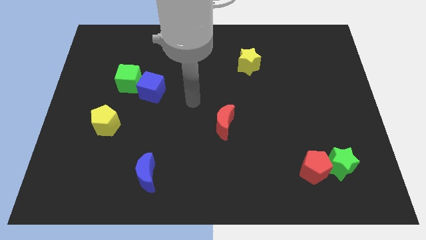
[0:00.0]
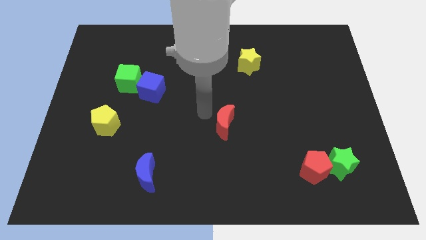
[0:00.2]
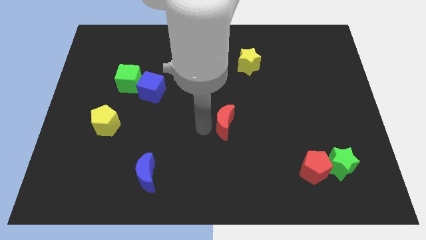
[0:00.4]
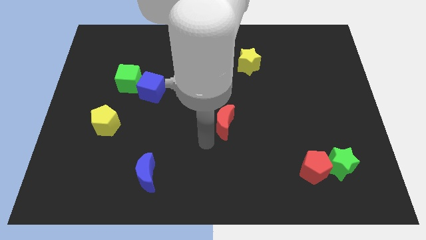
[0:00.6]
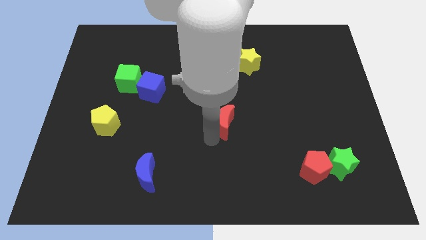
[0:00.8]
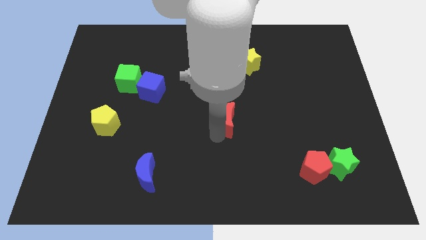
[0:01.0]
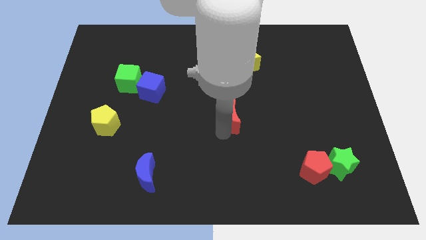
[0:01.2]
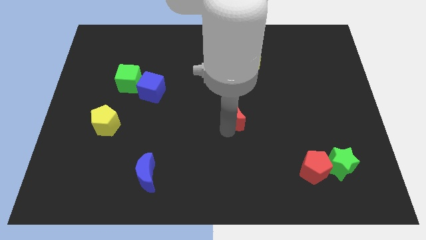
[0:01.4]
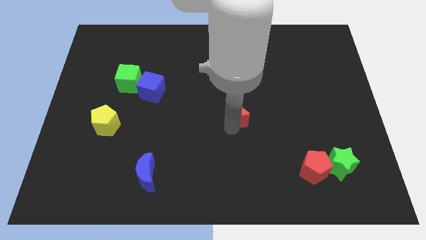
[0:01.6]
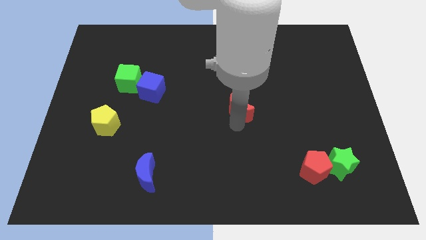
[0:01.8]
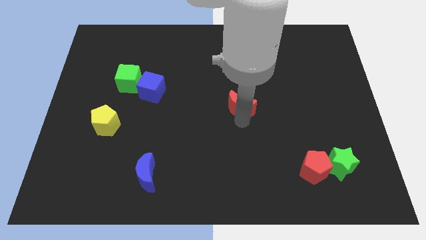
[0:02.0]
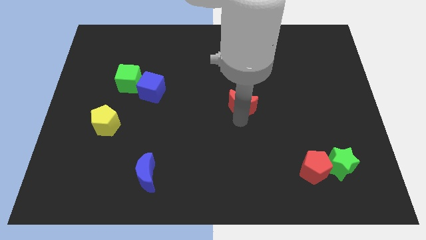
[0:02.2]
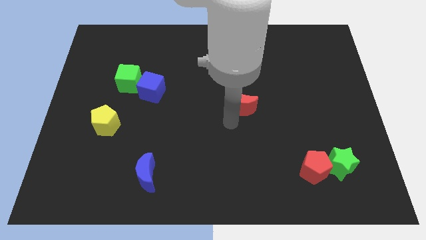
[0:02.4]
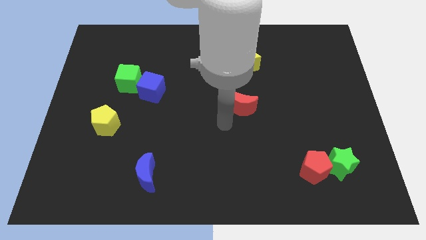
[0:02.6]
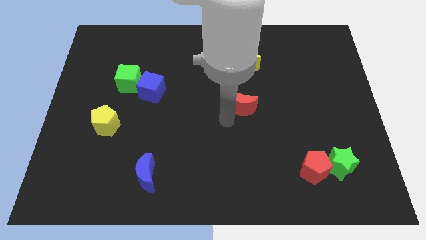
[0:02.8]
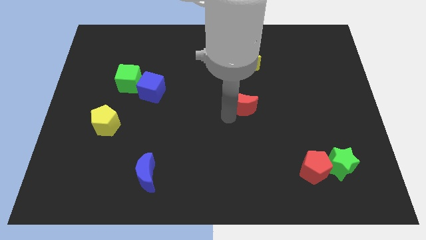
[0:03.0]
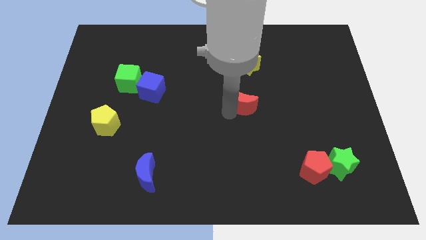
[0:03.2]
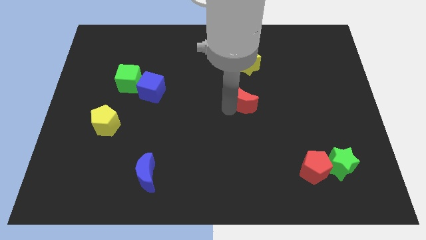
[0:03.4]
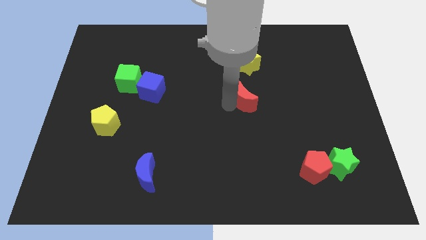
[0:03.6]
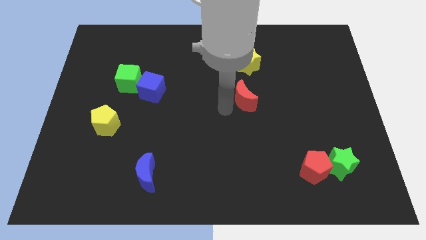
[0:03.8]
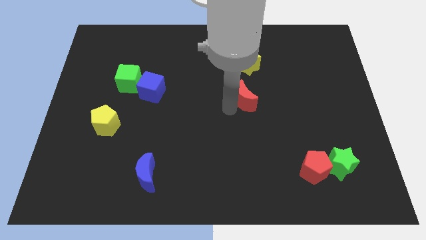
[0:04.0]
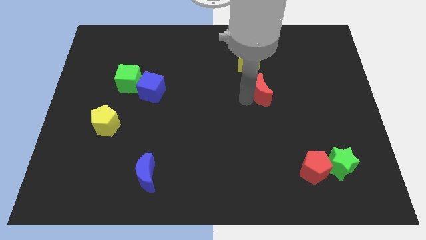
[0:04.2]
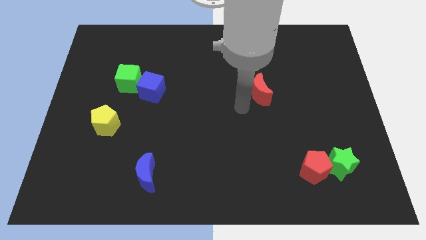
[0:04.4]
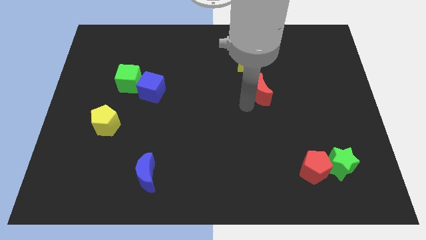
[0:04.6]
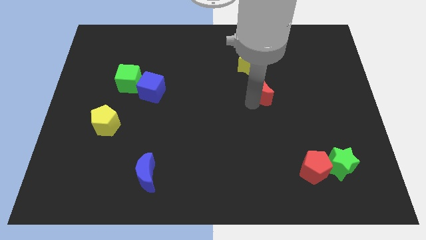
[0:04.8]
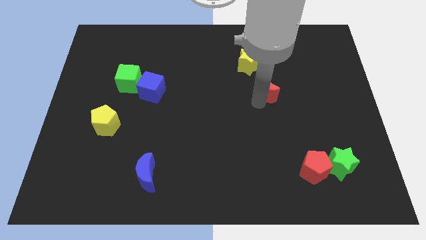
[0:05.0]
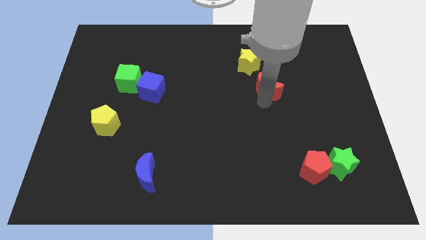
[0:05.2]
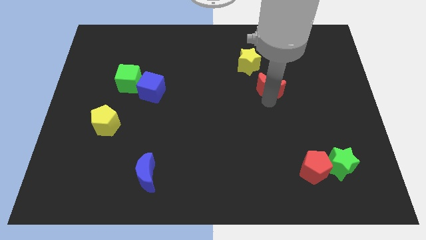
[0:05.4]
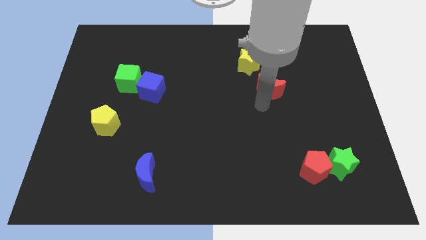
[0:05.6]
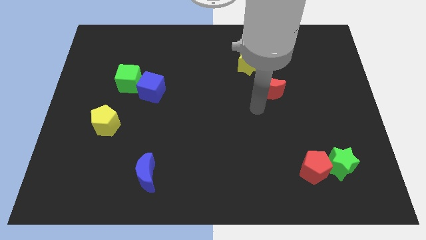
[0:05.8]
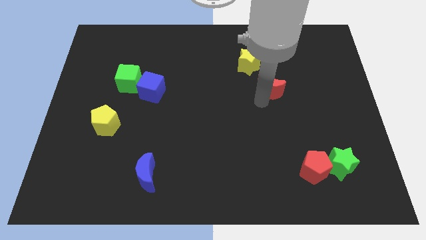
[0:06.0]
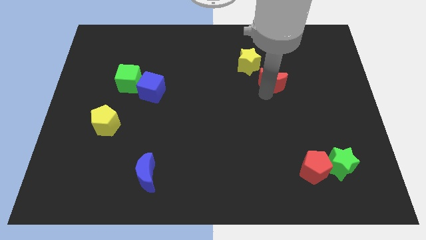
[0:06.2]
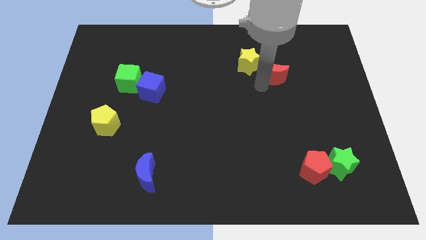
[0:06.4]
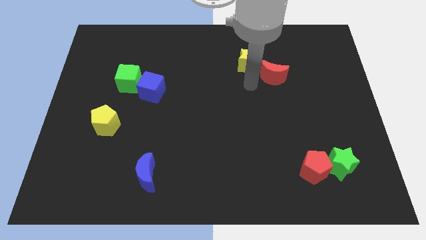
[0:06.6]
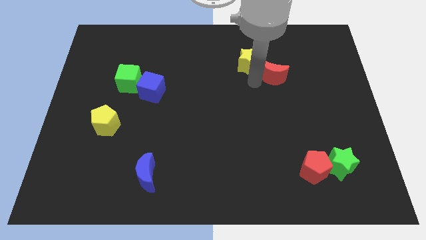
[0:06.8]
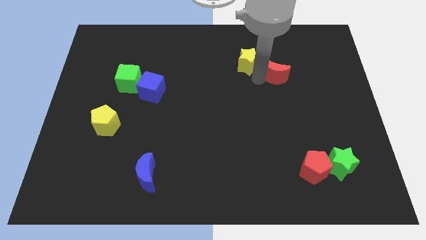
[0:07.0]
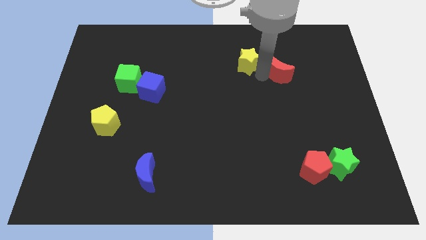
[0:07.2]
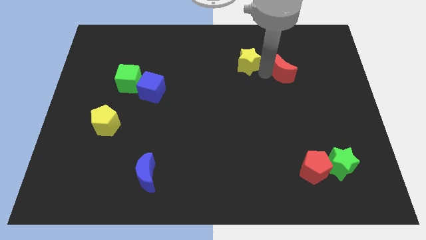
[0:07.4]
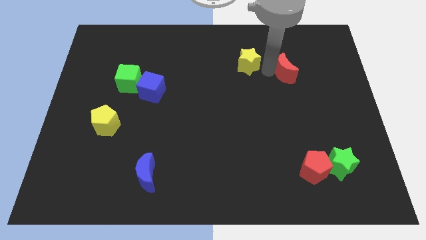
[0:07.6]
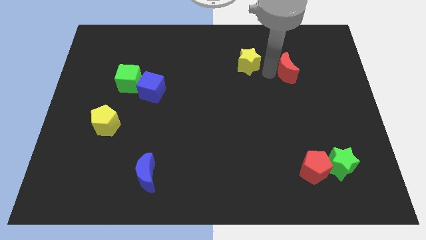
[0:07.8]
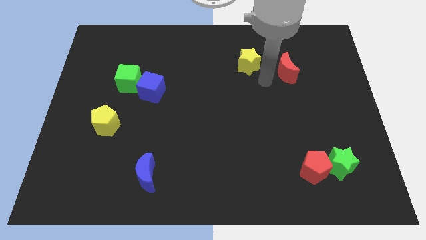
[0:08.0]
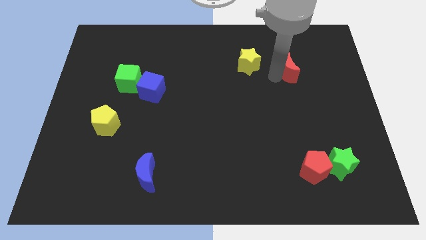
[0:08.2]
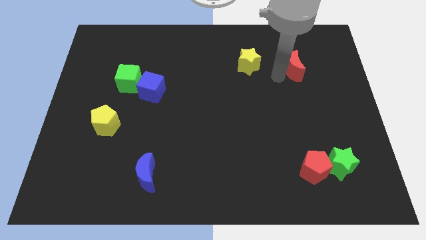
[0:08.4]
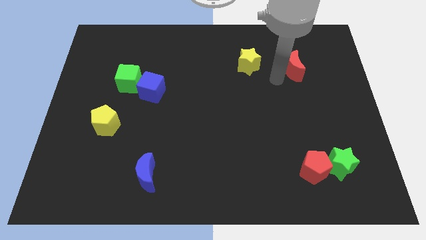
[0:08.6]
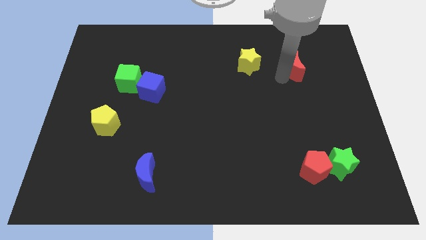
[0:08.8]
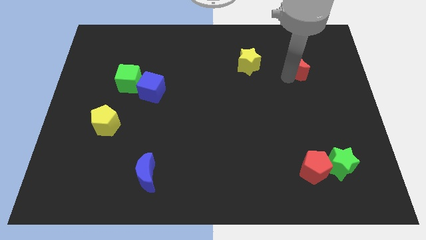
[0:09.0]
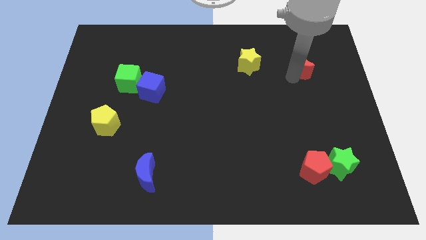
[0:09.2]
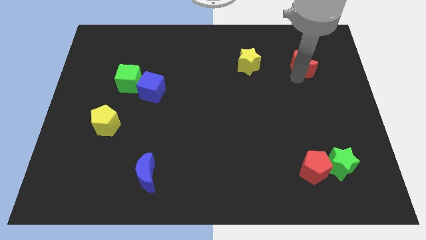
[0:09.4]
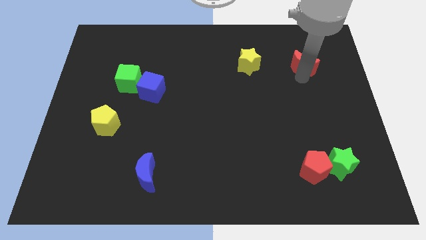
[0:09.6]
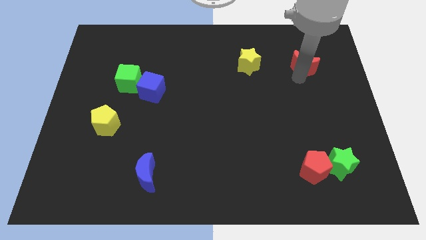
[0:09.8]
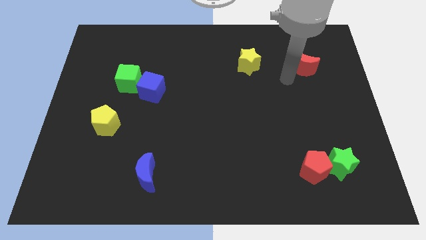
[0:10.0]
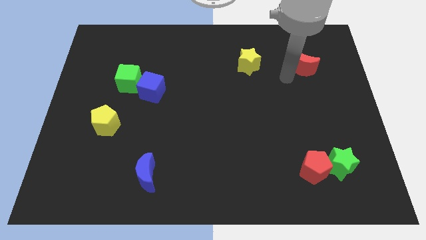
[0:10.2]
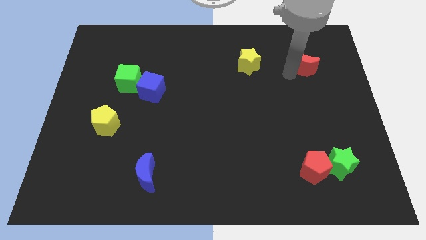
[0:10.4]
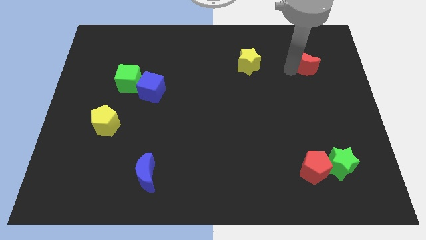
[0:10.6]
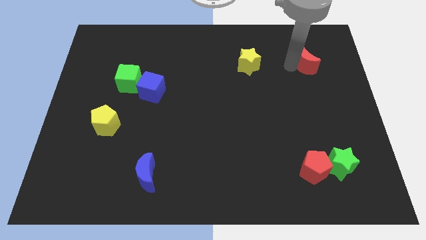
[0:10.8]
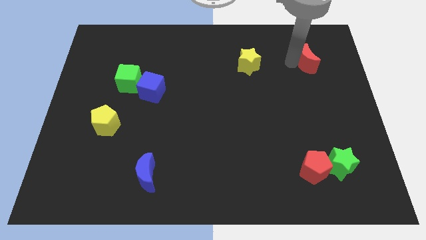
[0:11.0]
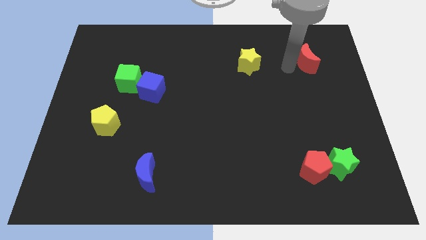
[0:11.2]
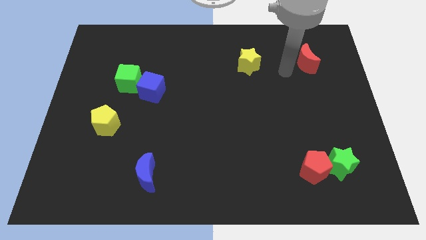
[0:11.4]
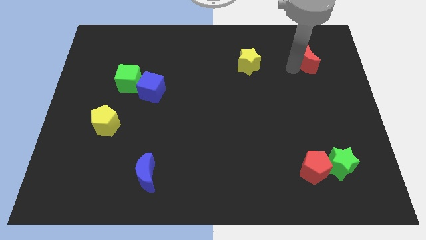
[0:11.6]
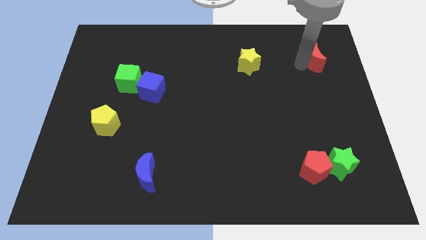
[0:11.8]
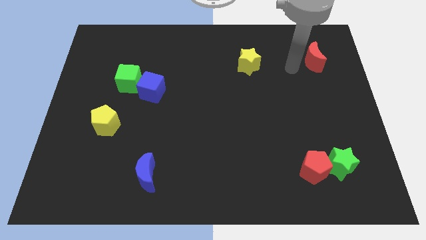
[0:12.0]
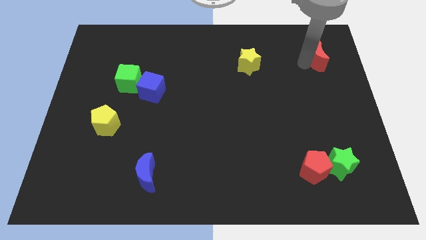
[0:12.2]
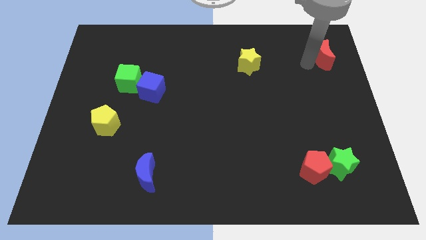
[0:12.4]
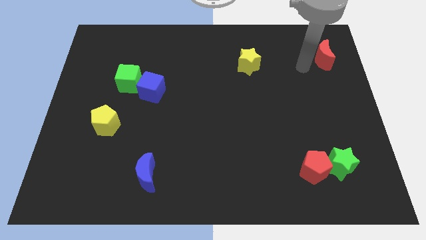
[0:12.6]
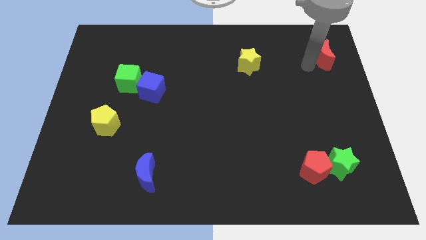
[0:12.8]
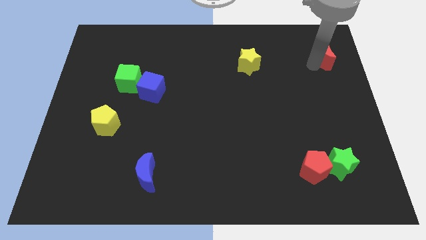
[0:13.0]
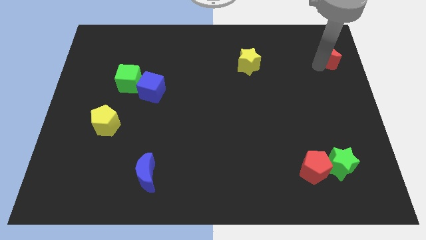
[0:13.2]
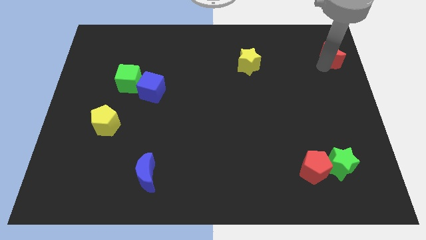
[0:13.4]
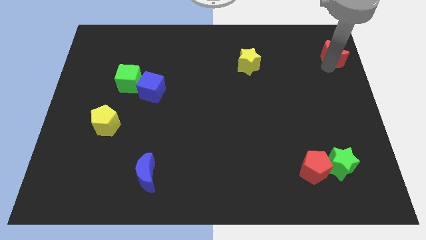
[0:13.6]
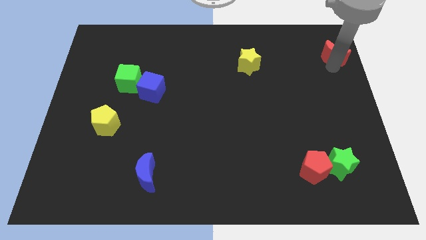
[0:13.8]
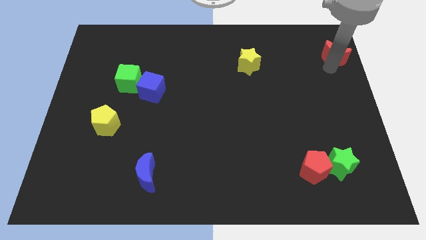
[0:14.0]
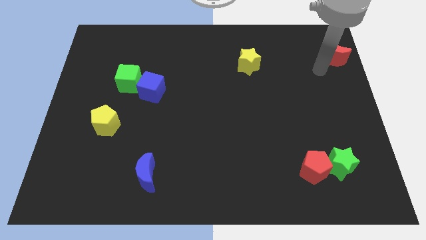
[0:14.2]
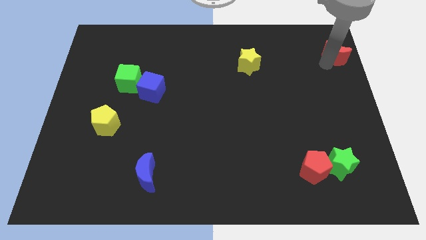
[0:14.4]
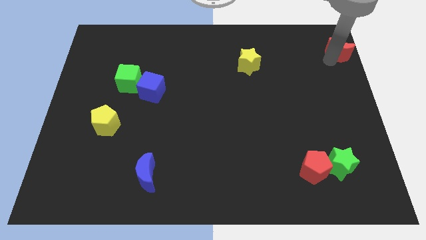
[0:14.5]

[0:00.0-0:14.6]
push the red moon to the upper right corner
